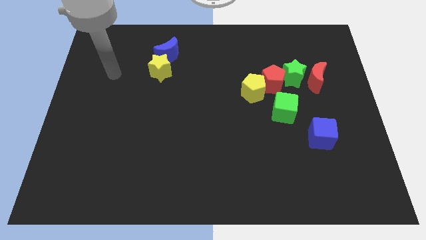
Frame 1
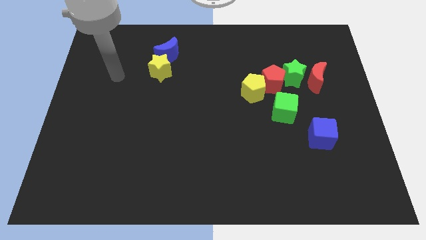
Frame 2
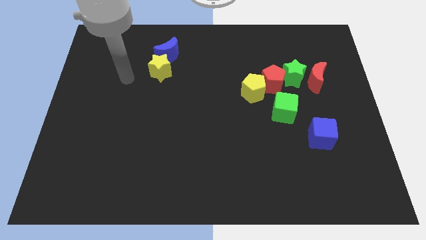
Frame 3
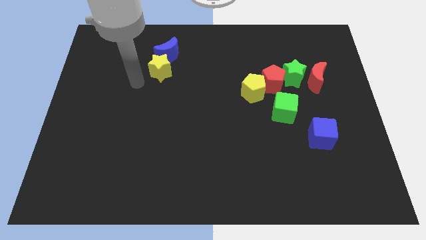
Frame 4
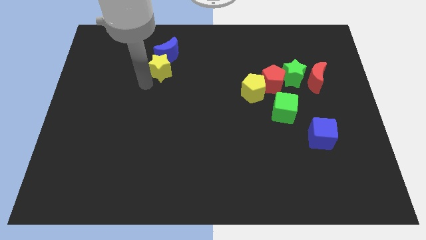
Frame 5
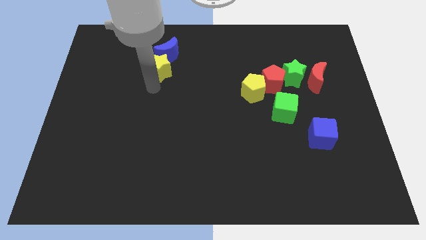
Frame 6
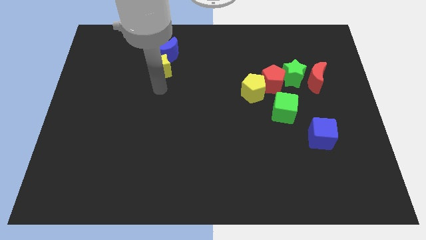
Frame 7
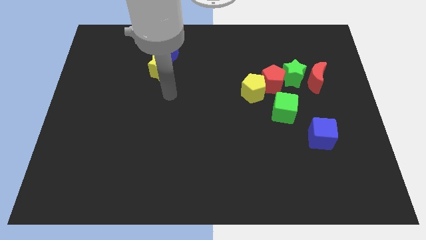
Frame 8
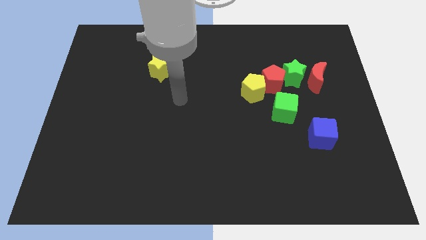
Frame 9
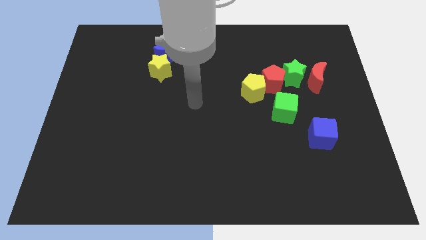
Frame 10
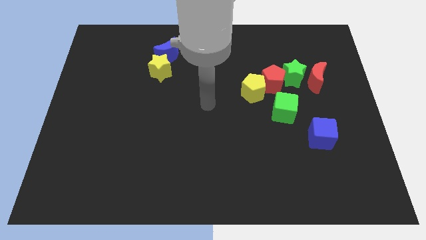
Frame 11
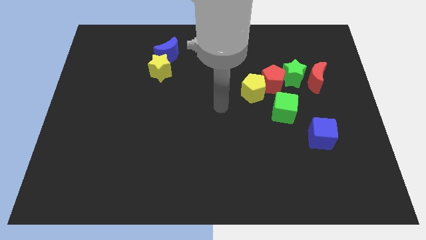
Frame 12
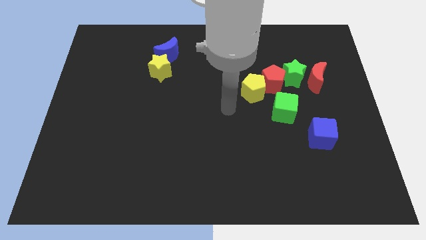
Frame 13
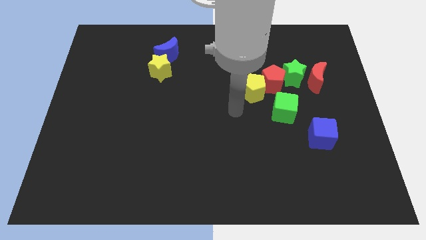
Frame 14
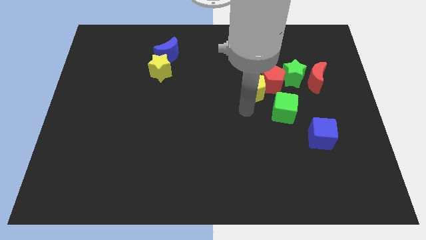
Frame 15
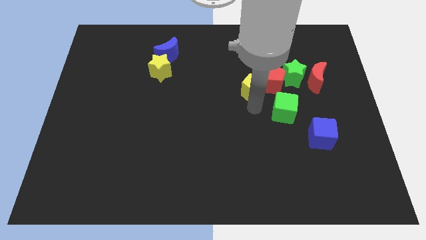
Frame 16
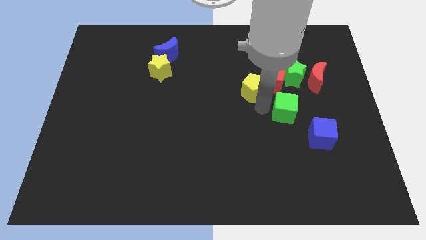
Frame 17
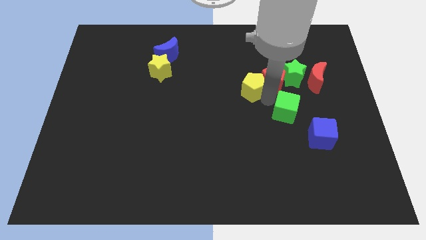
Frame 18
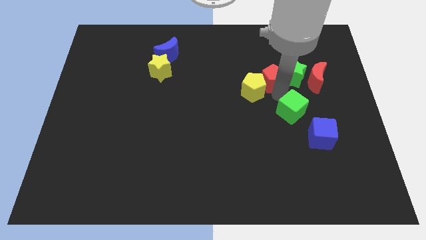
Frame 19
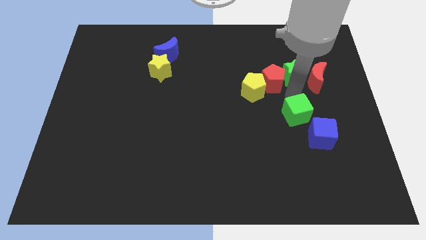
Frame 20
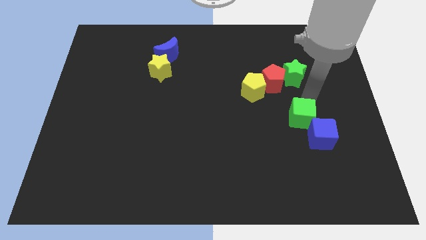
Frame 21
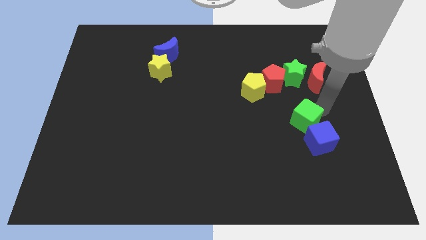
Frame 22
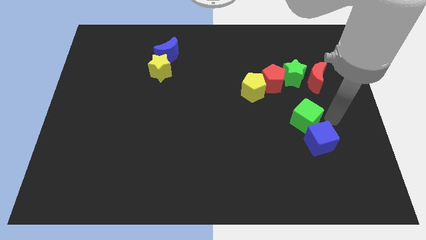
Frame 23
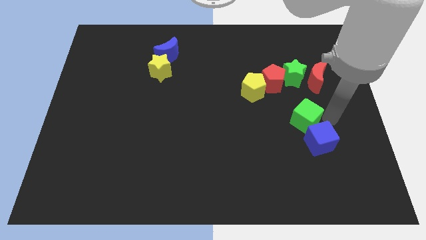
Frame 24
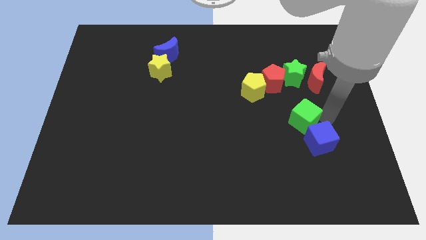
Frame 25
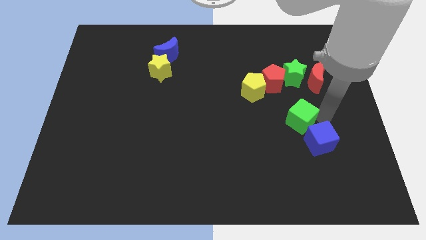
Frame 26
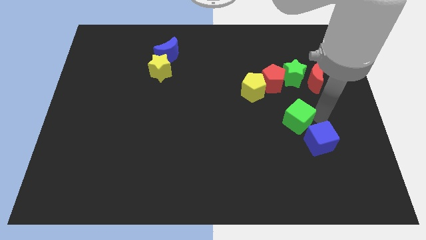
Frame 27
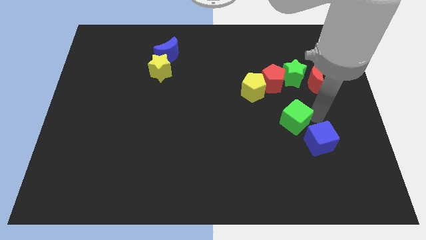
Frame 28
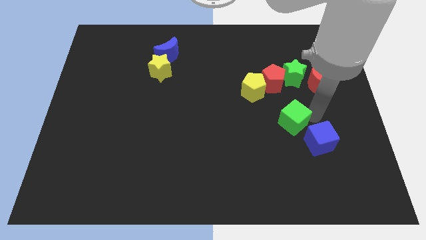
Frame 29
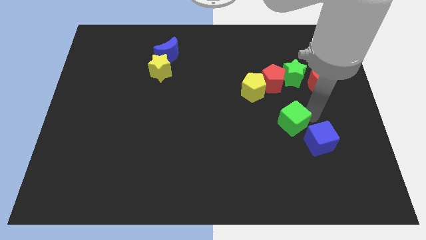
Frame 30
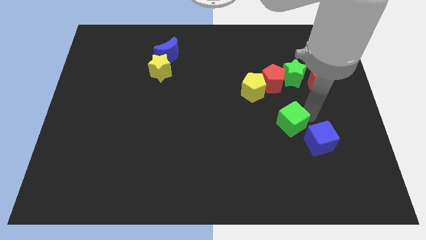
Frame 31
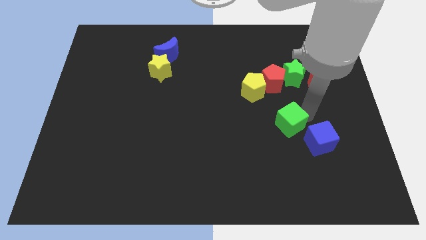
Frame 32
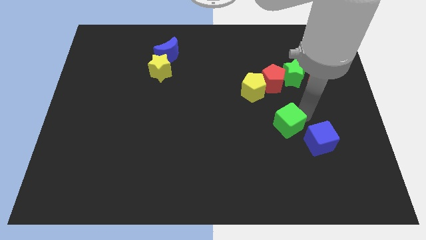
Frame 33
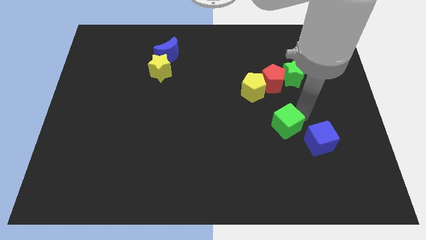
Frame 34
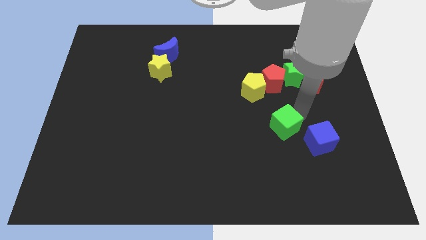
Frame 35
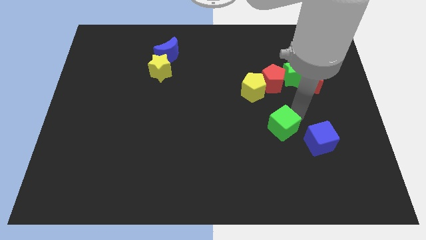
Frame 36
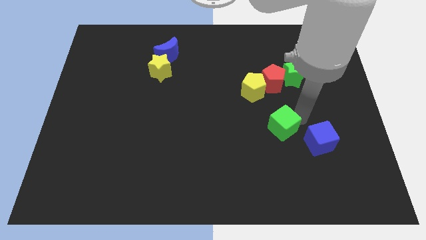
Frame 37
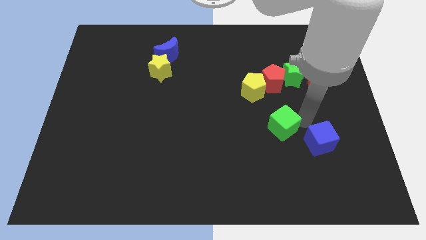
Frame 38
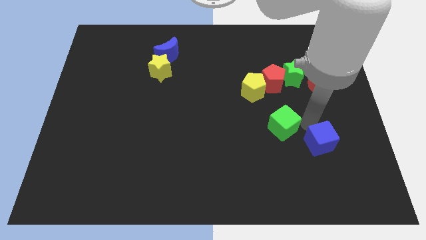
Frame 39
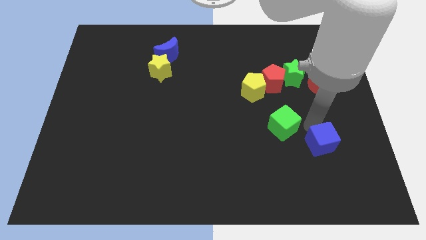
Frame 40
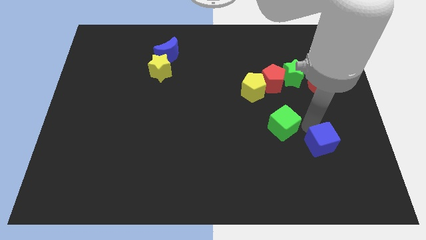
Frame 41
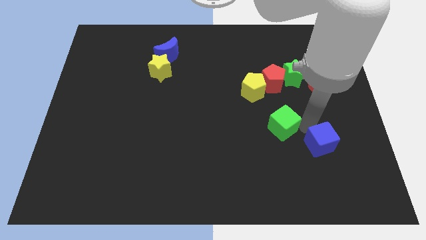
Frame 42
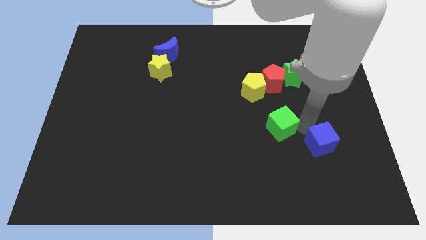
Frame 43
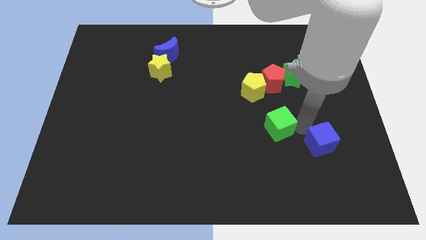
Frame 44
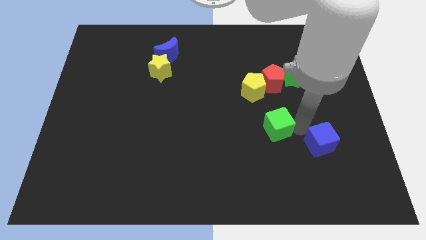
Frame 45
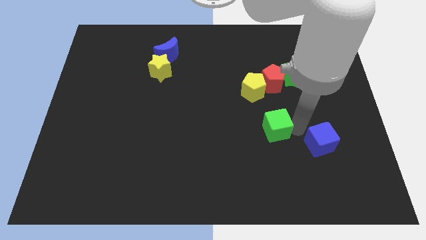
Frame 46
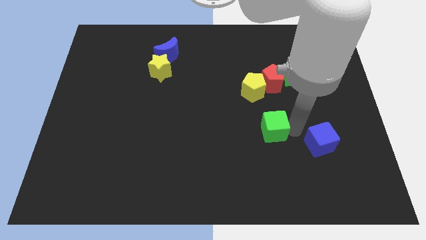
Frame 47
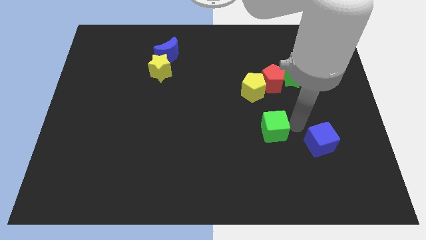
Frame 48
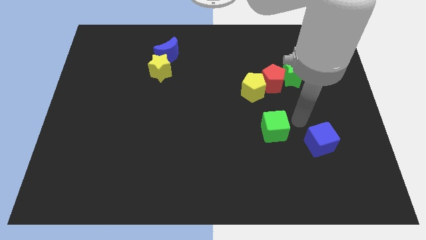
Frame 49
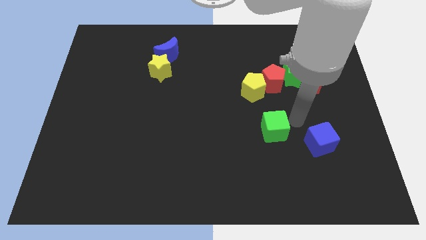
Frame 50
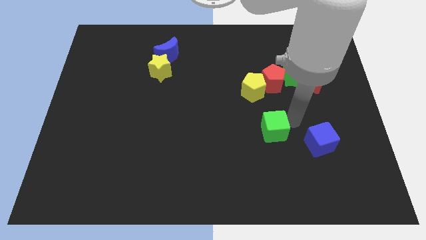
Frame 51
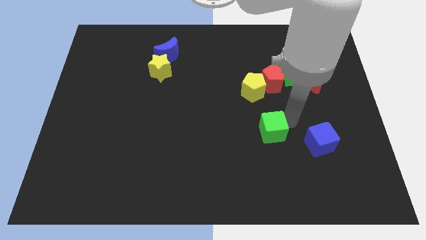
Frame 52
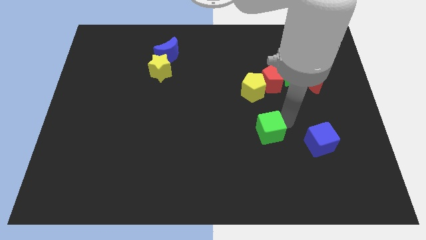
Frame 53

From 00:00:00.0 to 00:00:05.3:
move the green cube a little diagonally downwards and to the left

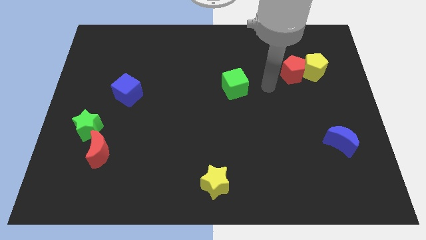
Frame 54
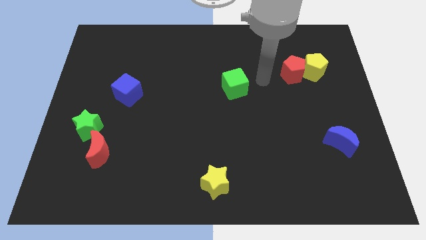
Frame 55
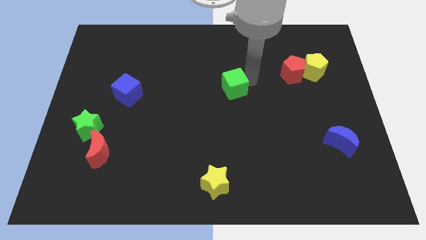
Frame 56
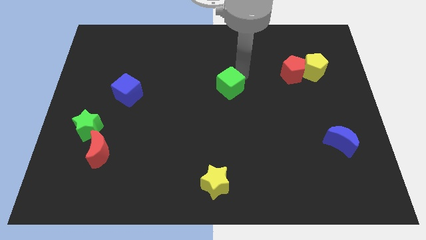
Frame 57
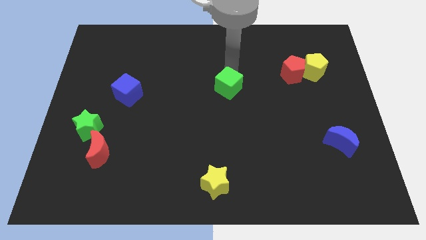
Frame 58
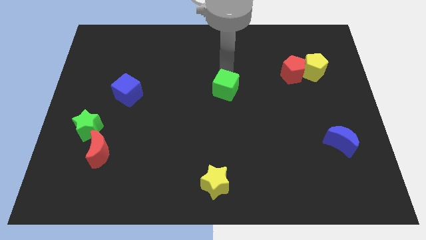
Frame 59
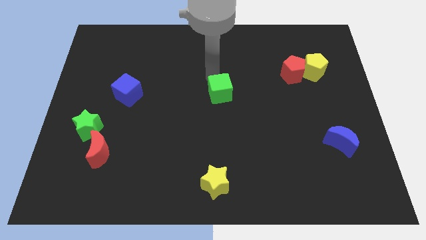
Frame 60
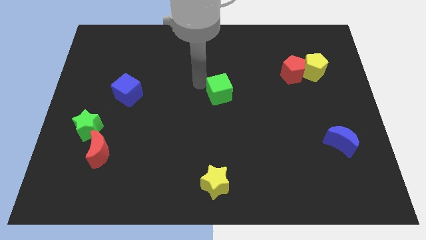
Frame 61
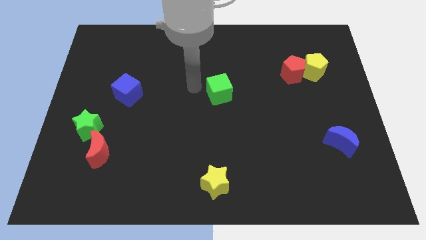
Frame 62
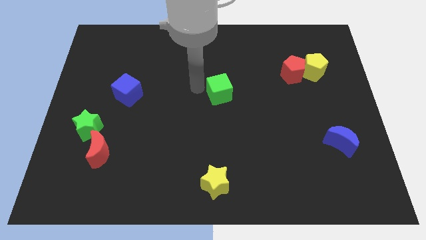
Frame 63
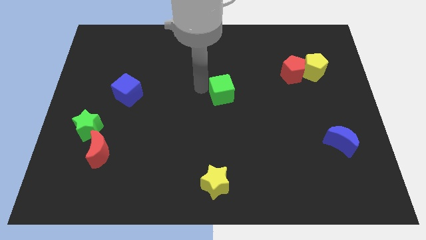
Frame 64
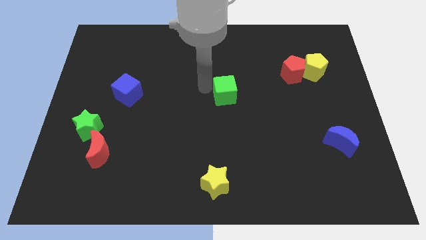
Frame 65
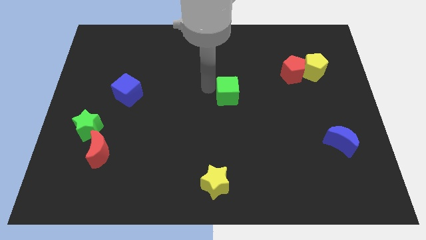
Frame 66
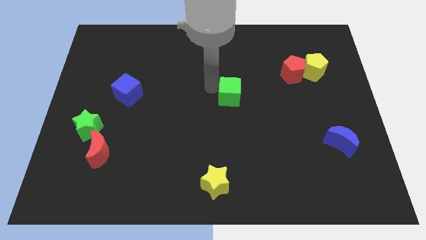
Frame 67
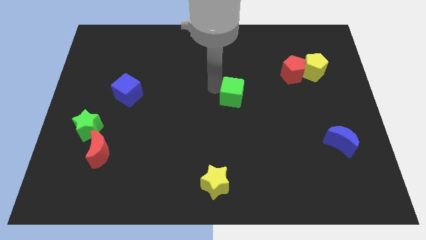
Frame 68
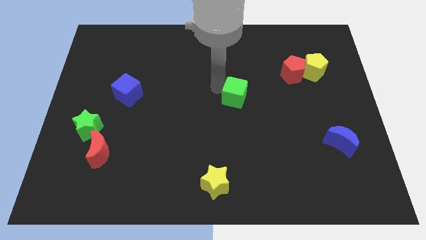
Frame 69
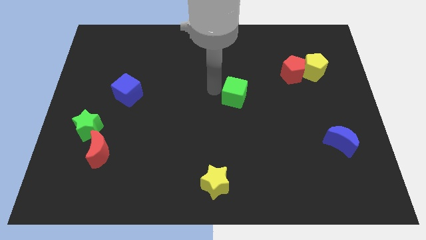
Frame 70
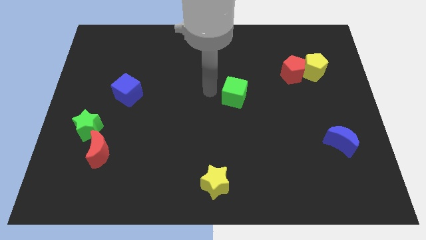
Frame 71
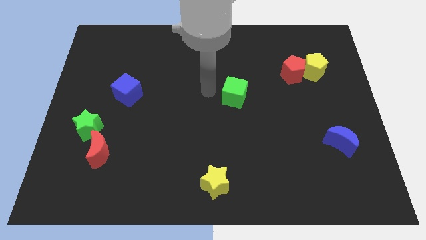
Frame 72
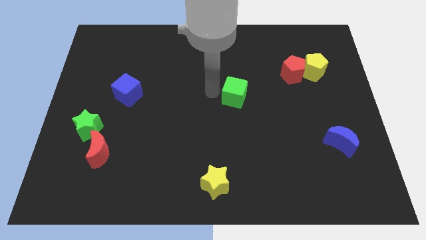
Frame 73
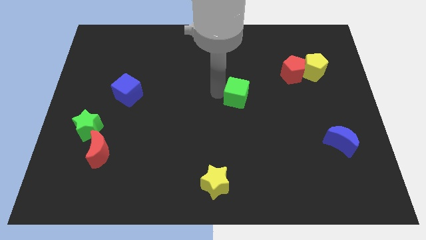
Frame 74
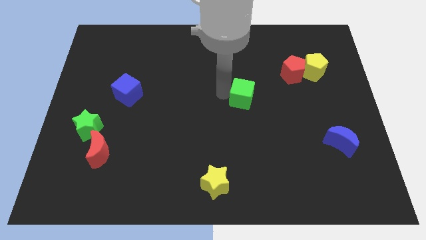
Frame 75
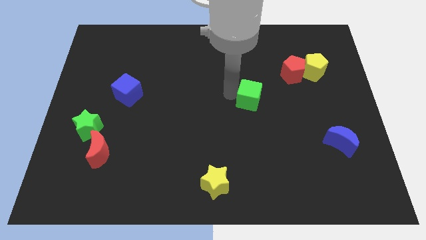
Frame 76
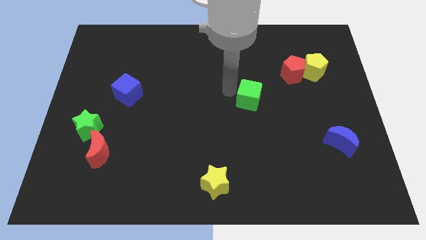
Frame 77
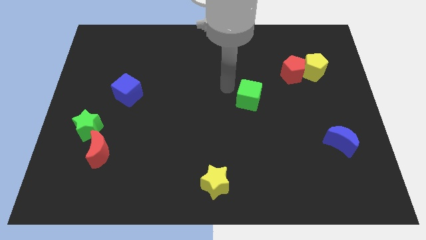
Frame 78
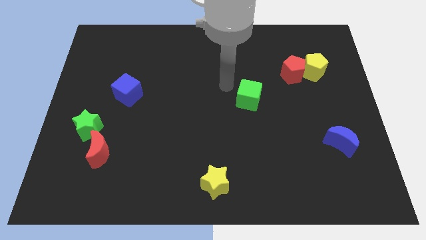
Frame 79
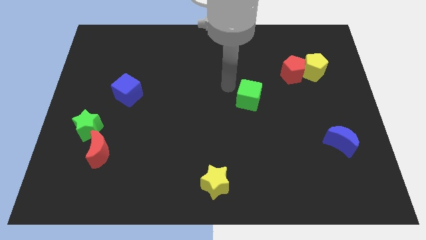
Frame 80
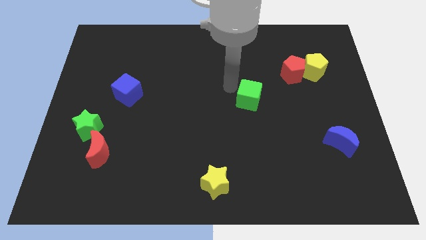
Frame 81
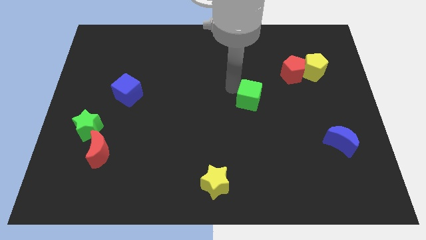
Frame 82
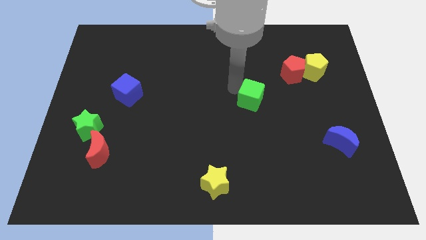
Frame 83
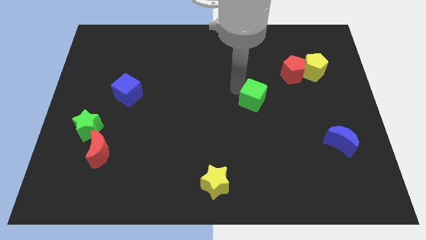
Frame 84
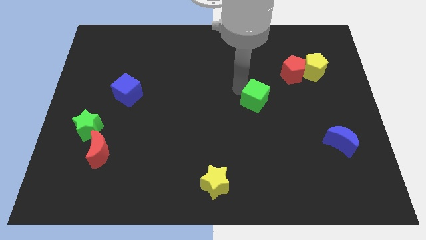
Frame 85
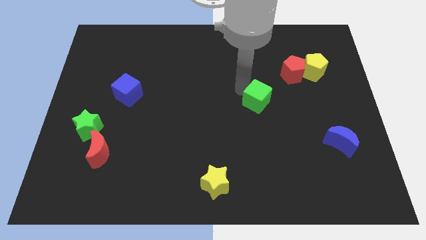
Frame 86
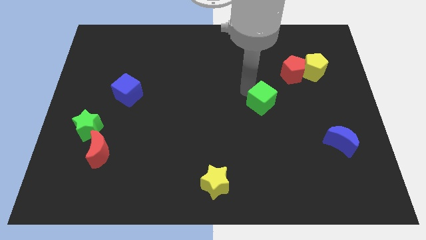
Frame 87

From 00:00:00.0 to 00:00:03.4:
push the green cube down and to the right a little bit
